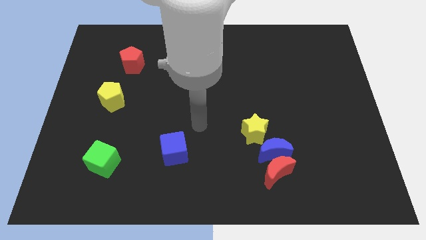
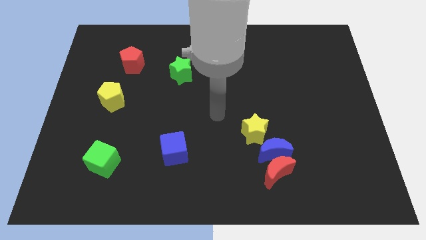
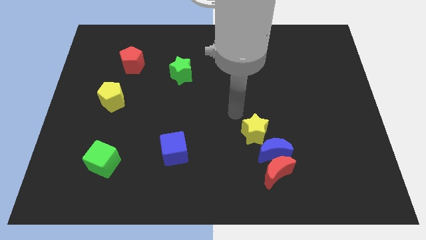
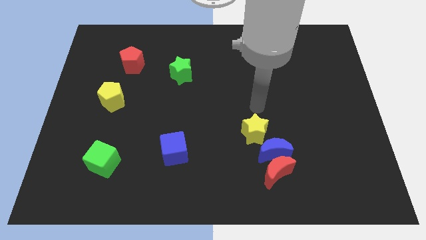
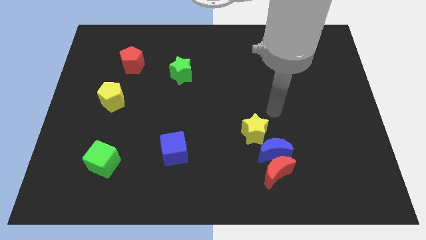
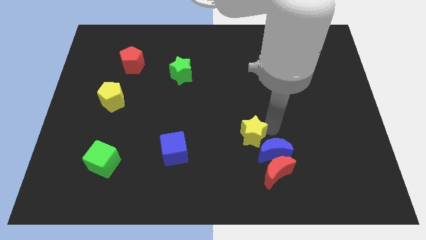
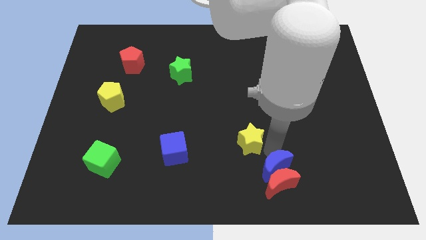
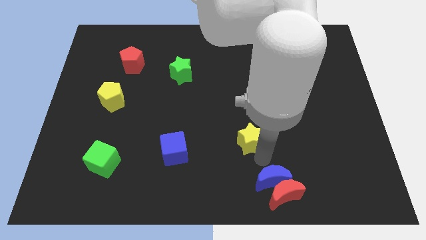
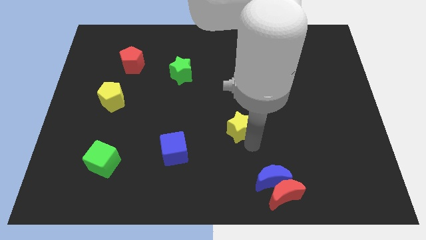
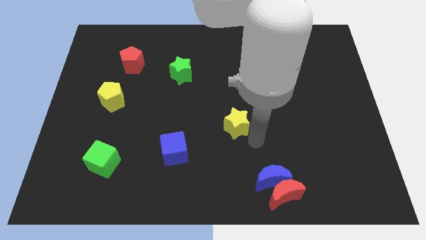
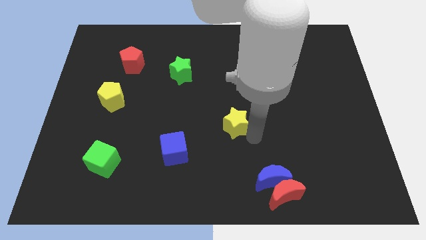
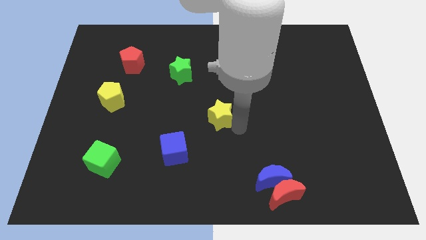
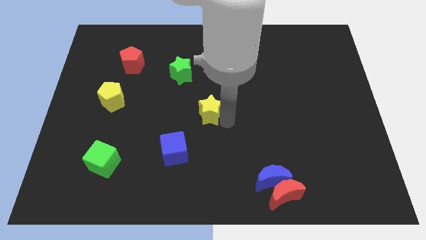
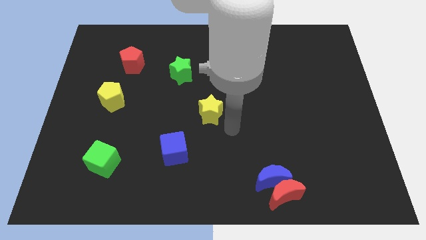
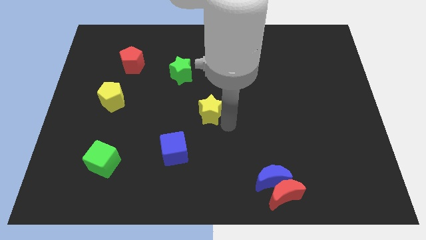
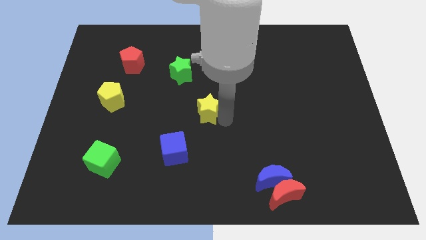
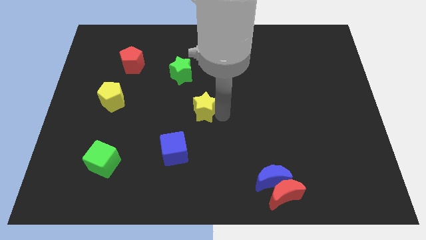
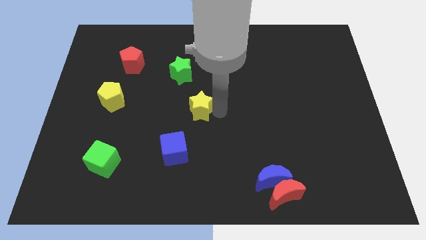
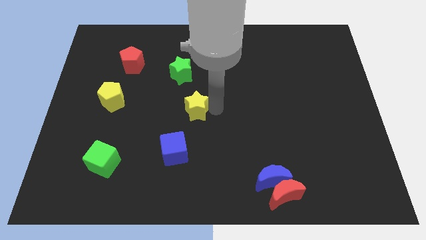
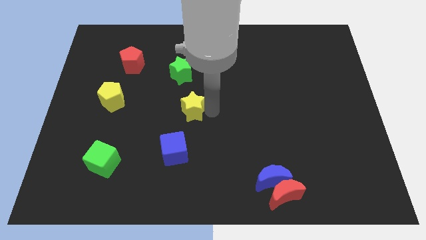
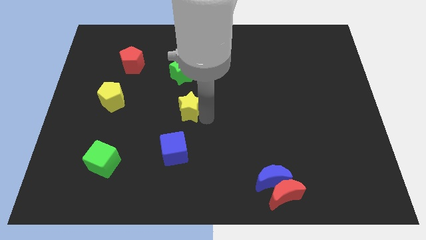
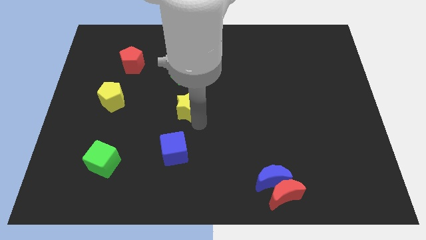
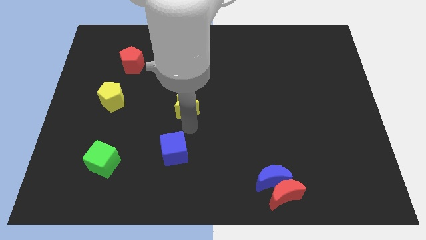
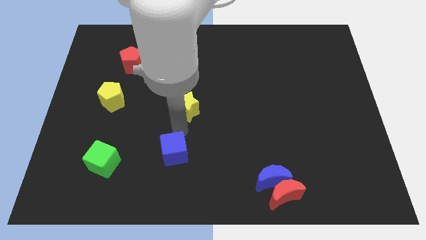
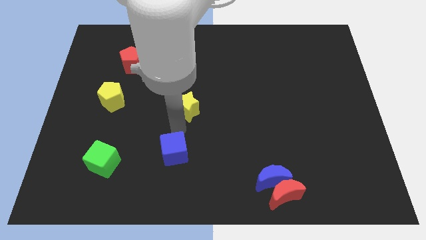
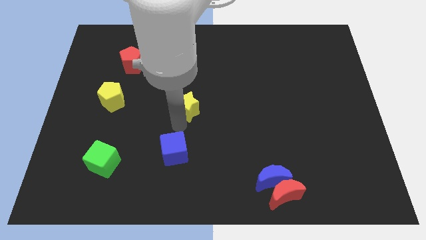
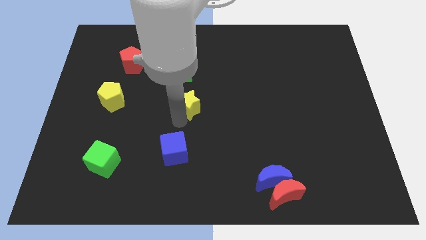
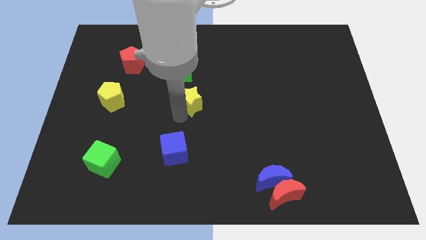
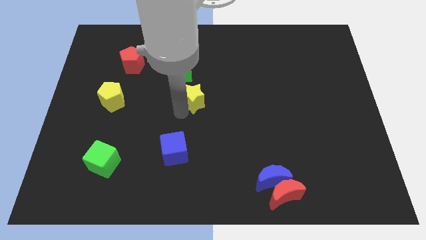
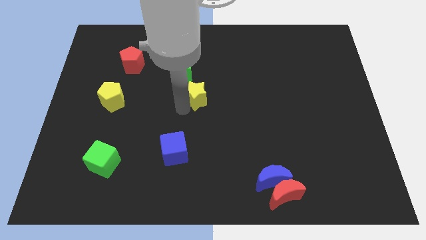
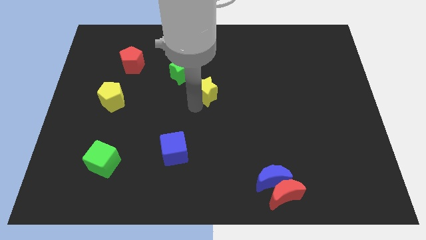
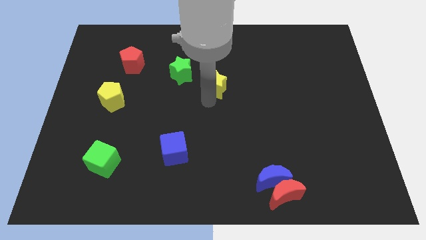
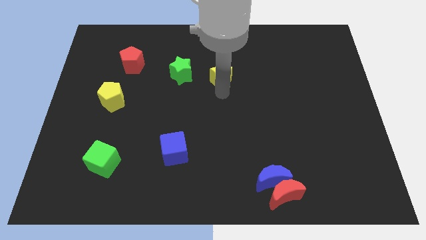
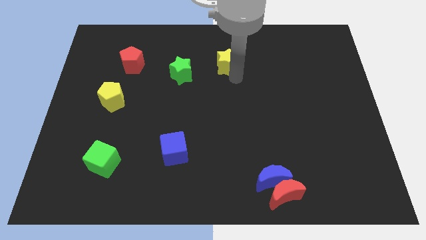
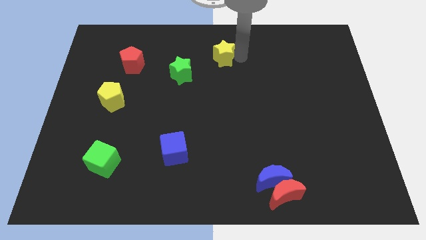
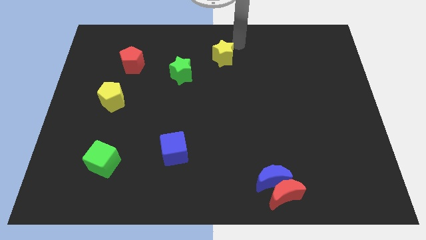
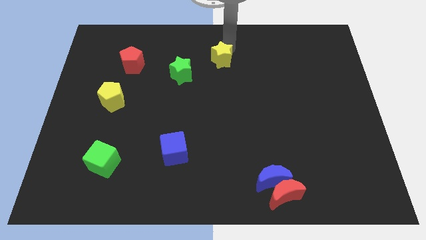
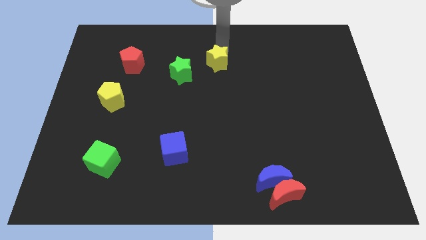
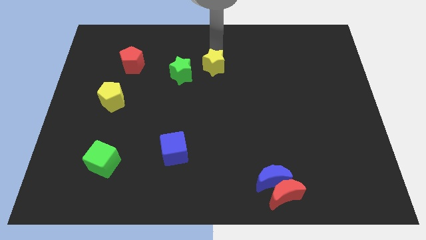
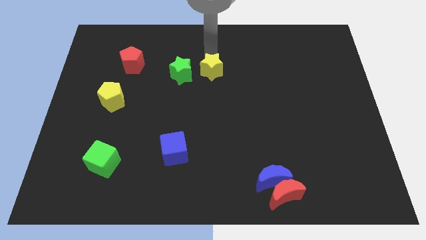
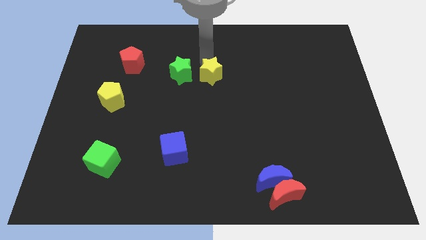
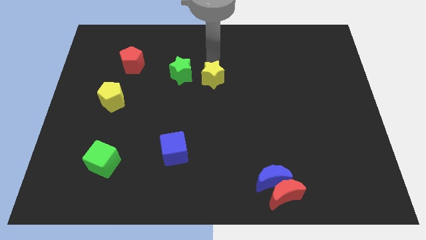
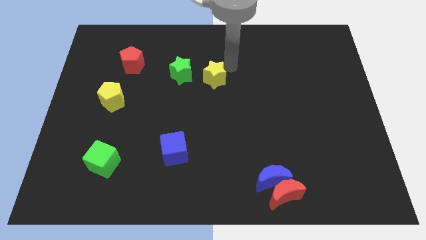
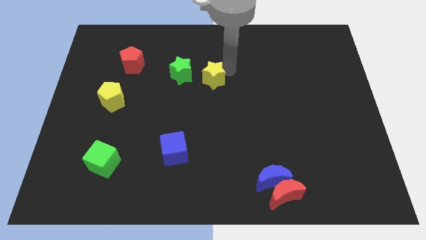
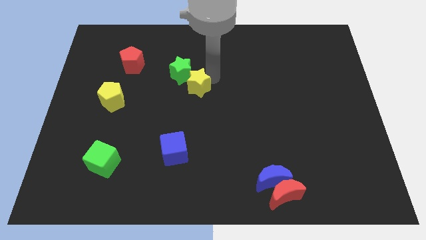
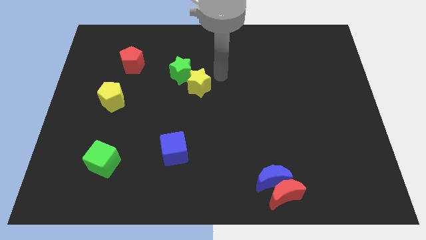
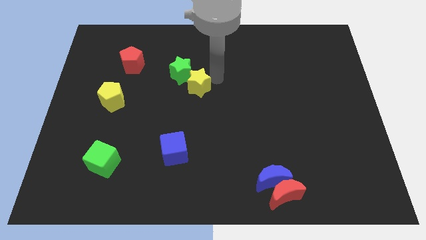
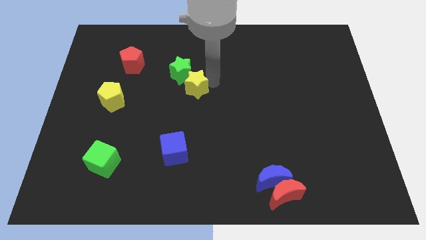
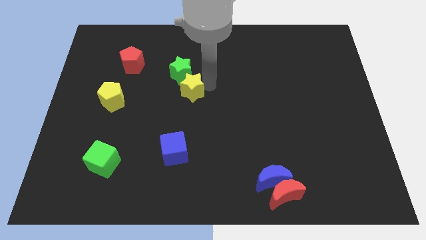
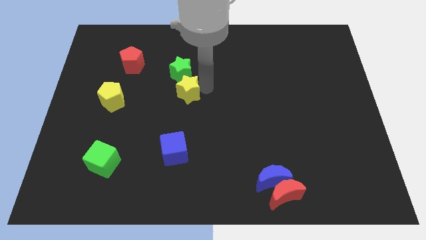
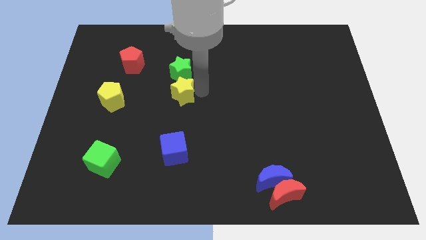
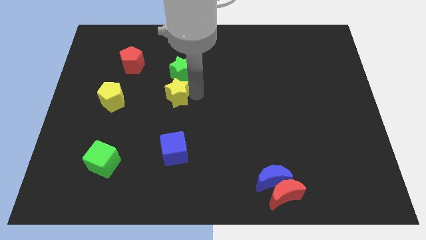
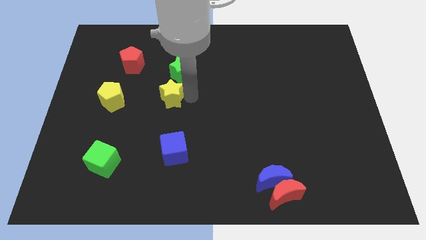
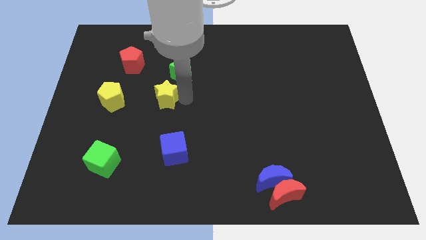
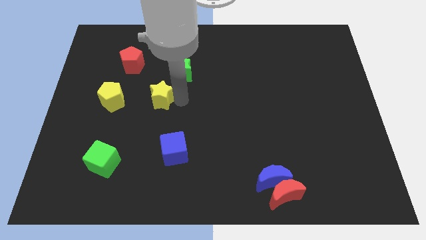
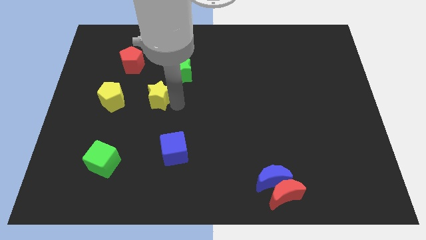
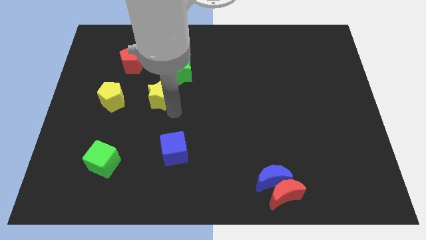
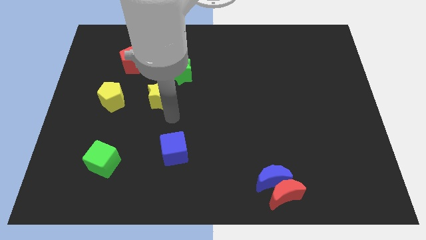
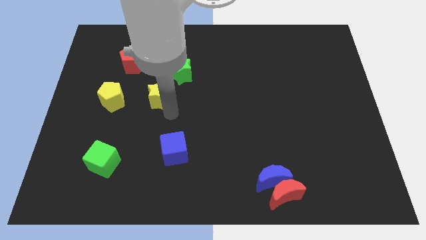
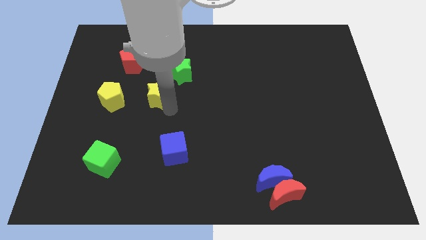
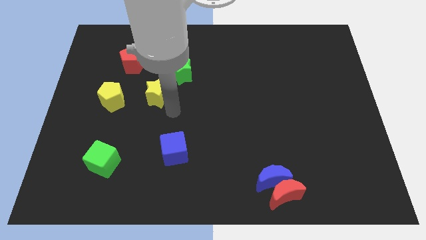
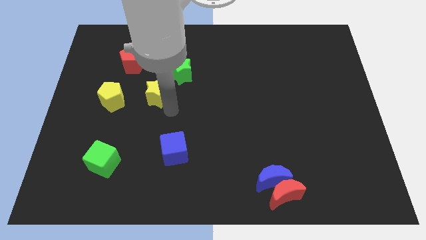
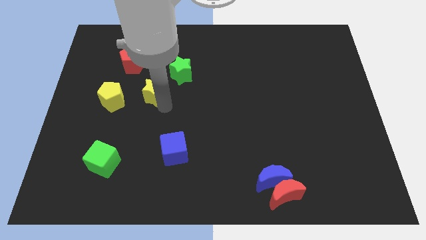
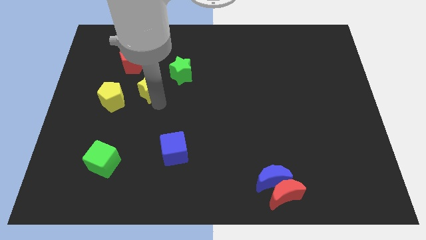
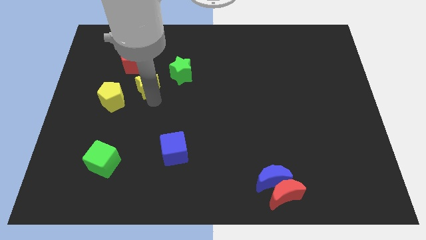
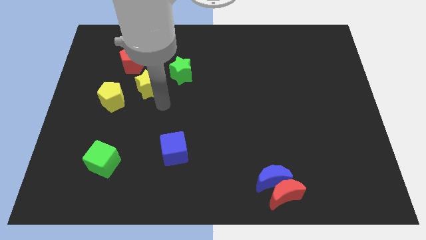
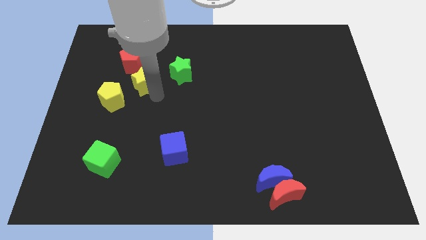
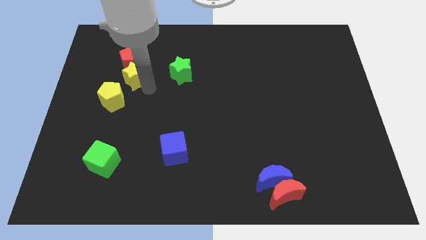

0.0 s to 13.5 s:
slide the yellow star next to the red pentagon
